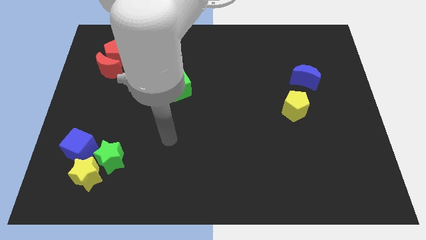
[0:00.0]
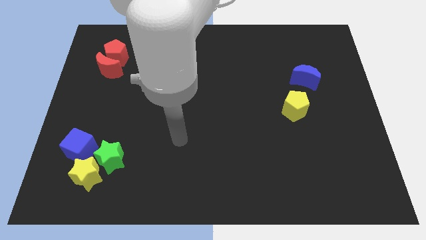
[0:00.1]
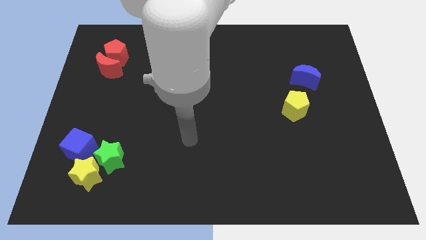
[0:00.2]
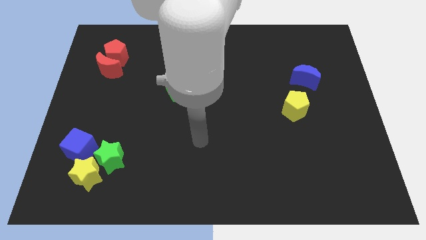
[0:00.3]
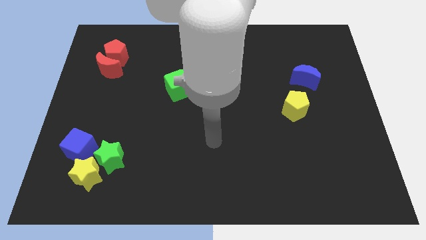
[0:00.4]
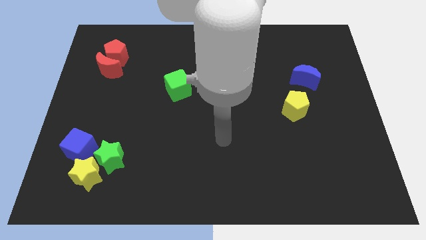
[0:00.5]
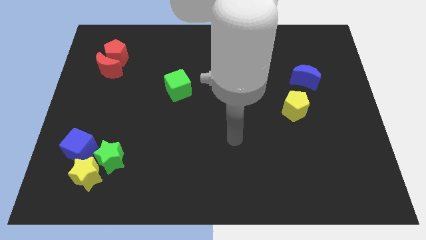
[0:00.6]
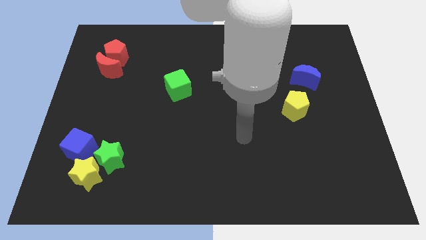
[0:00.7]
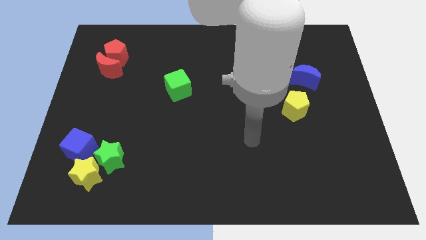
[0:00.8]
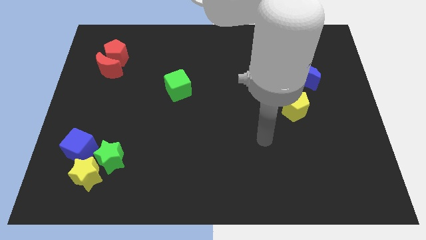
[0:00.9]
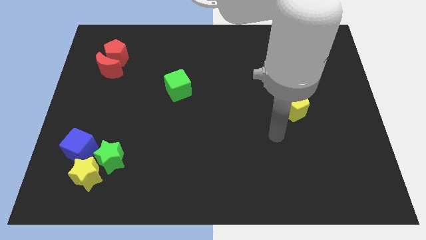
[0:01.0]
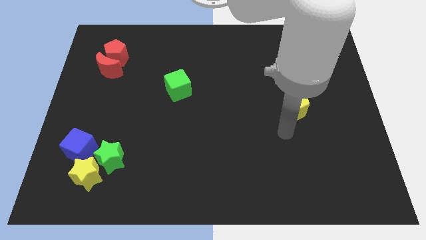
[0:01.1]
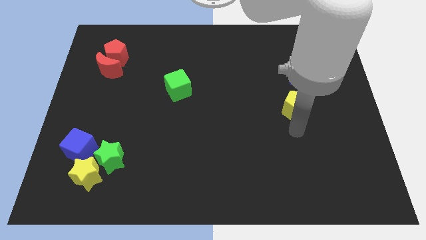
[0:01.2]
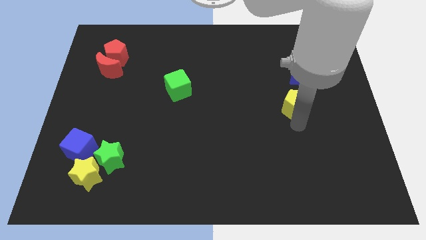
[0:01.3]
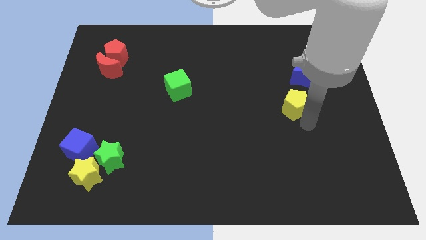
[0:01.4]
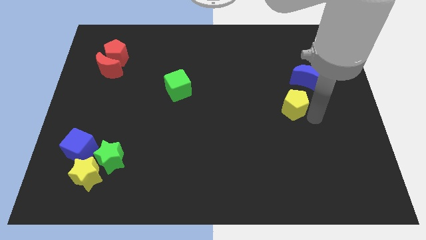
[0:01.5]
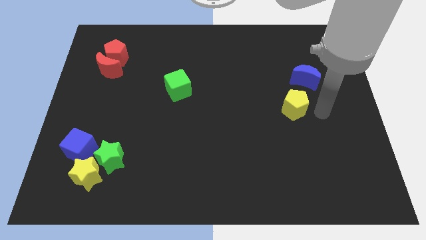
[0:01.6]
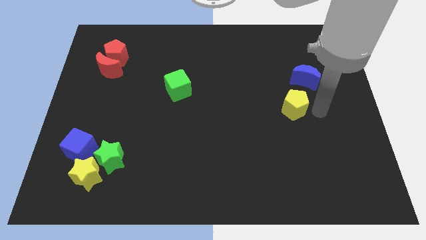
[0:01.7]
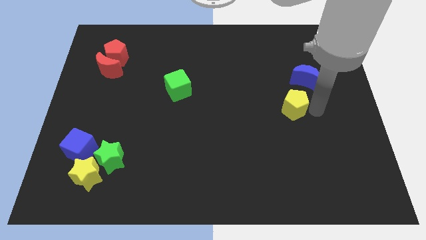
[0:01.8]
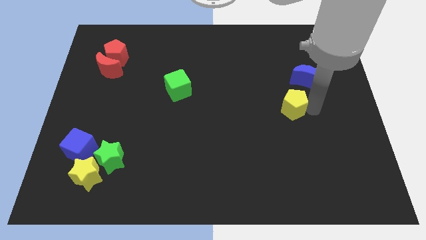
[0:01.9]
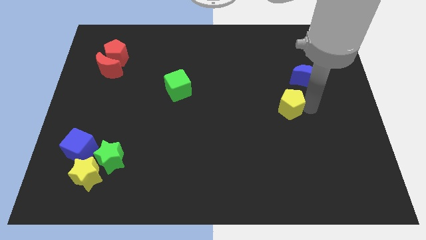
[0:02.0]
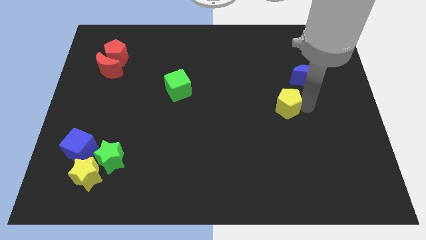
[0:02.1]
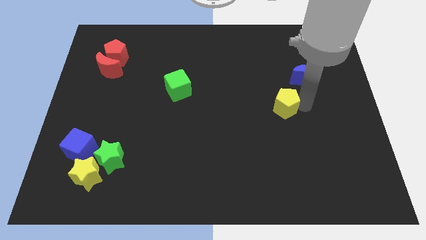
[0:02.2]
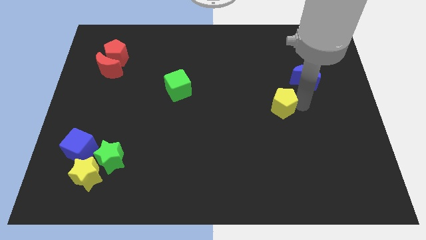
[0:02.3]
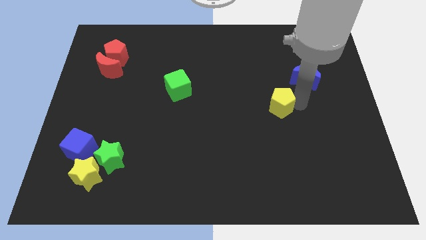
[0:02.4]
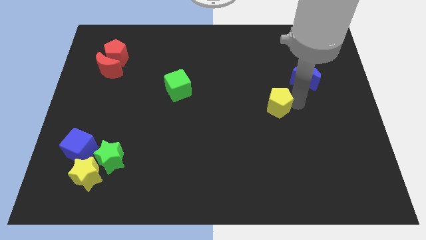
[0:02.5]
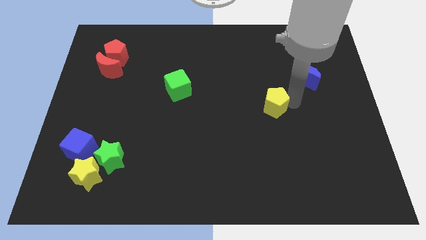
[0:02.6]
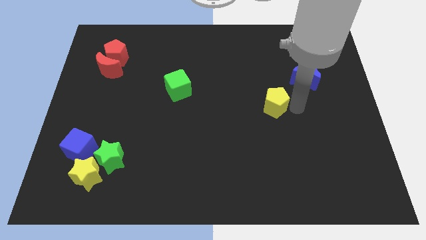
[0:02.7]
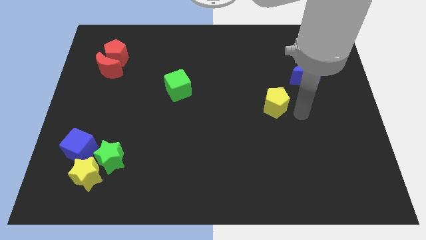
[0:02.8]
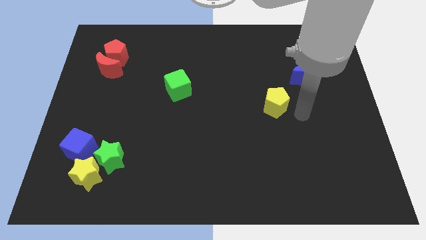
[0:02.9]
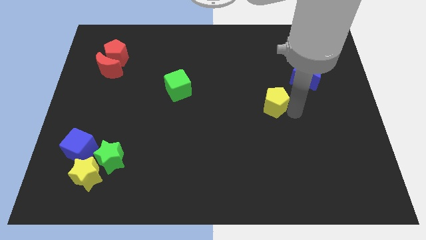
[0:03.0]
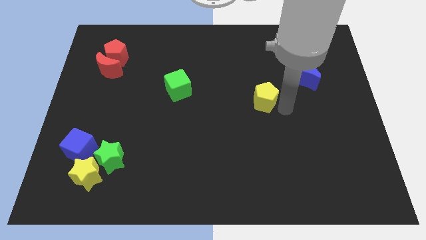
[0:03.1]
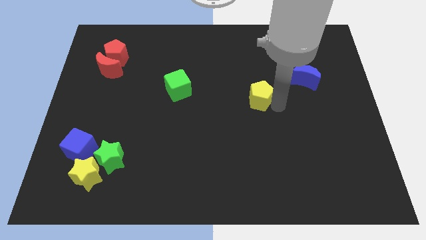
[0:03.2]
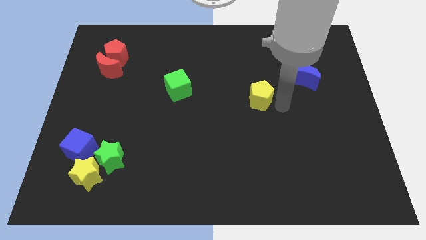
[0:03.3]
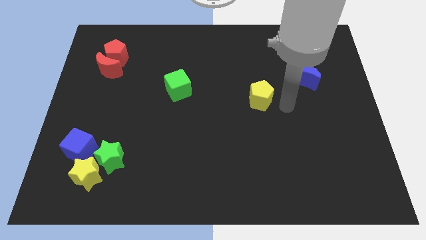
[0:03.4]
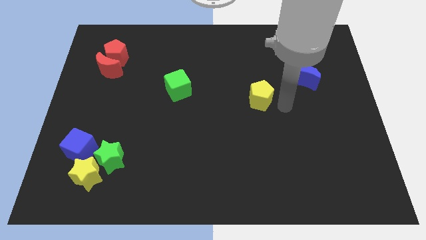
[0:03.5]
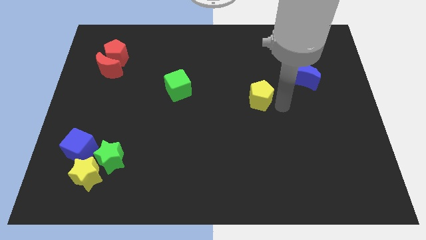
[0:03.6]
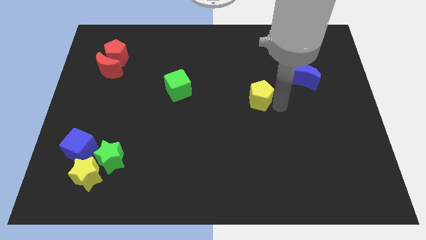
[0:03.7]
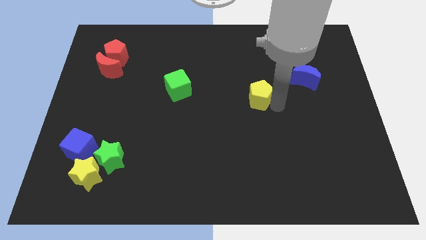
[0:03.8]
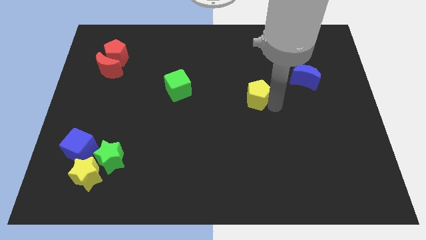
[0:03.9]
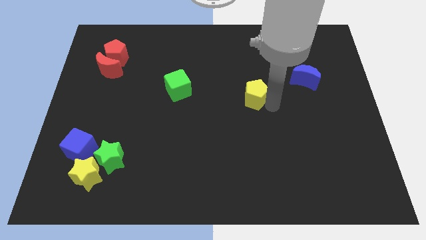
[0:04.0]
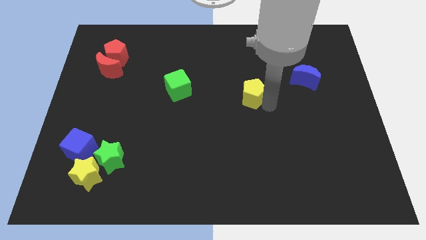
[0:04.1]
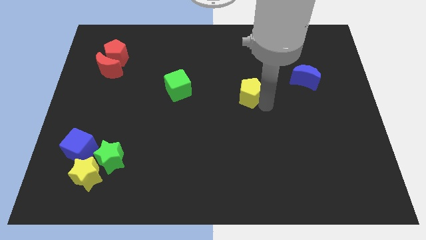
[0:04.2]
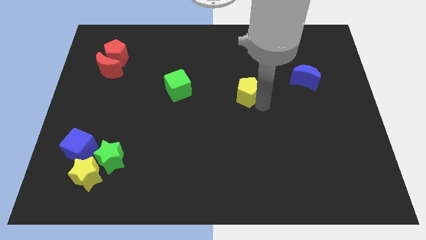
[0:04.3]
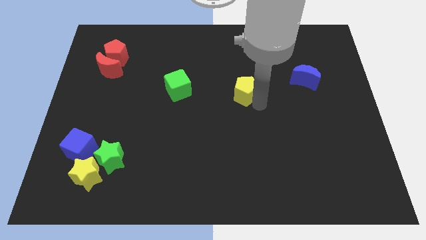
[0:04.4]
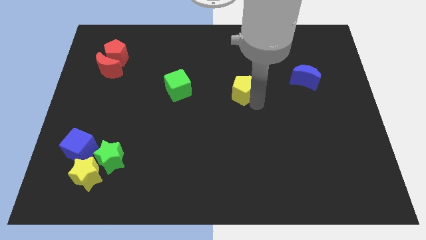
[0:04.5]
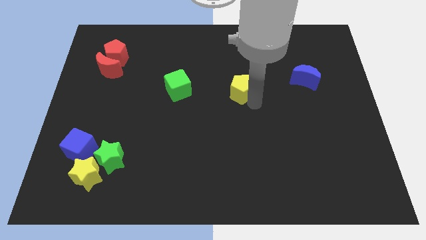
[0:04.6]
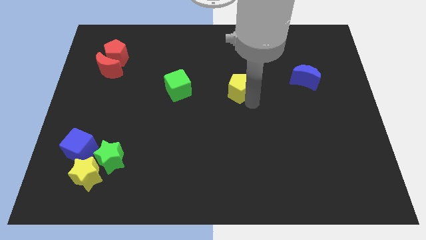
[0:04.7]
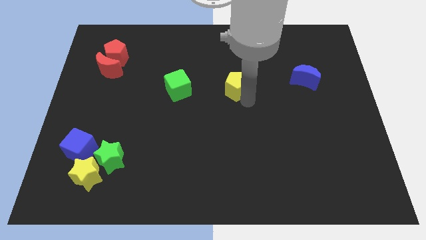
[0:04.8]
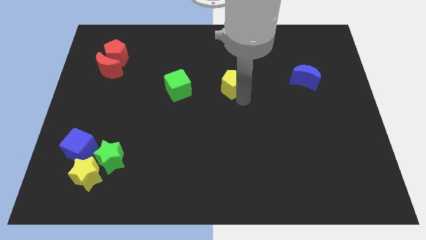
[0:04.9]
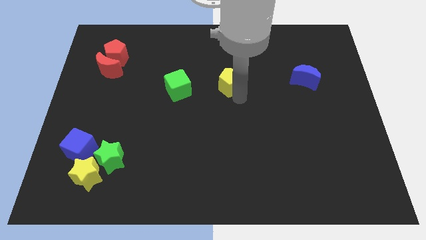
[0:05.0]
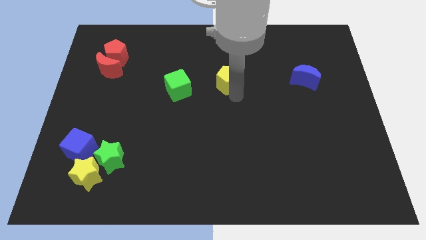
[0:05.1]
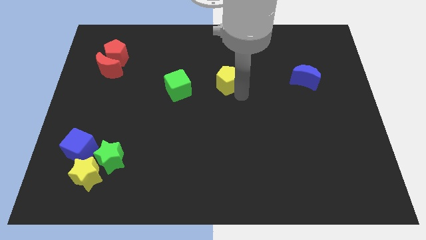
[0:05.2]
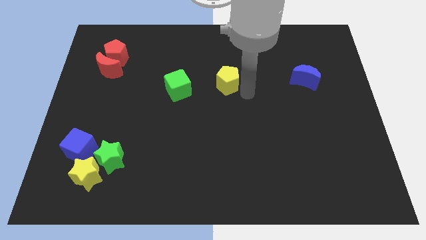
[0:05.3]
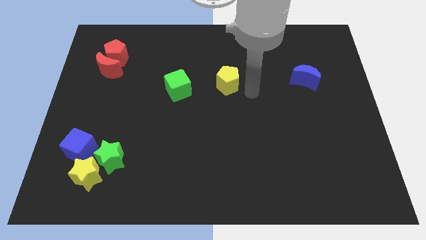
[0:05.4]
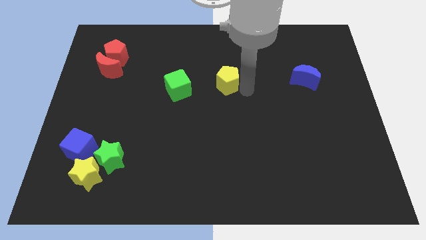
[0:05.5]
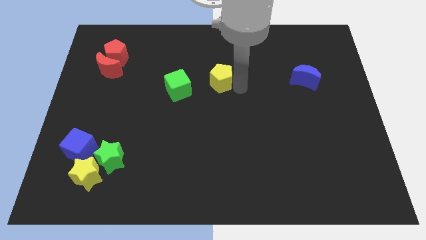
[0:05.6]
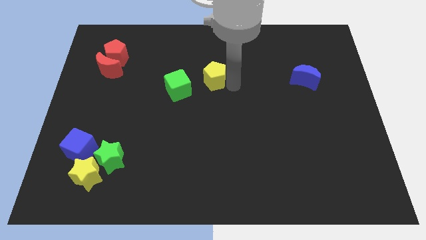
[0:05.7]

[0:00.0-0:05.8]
move the yellow pentagon to the top right of the green cube
